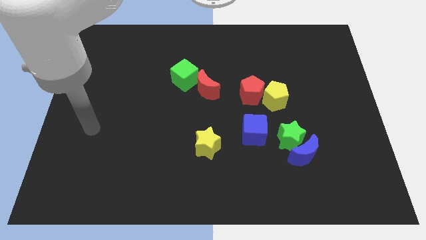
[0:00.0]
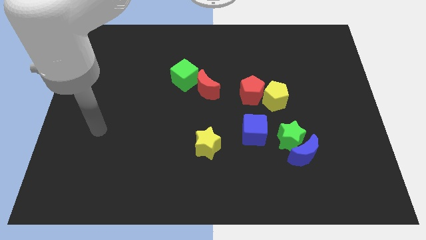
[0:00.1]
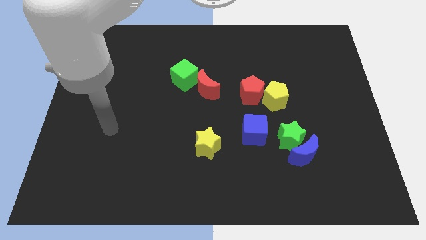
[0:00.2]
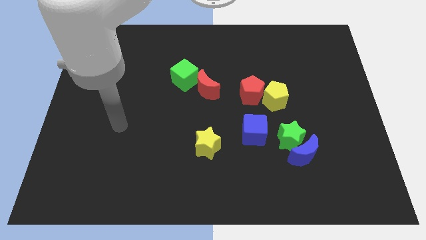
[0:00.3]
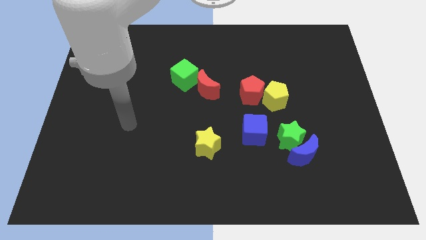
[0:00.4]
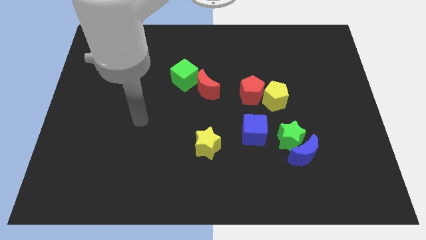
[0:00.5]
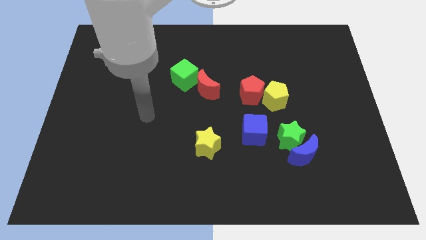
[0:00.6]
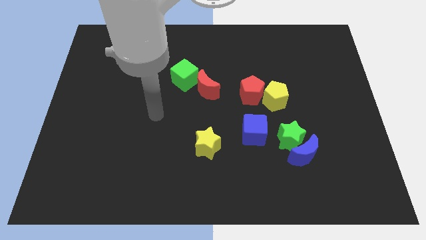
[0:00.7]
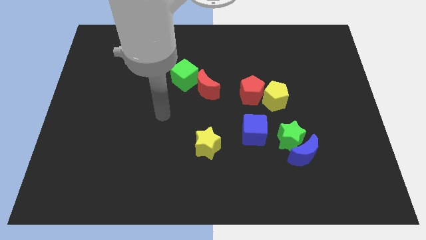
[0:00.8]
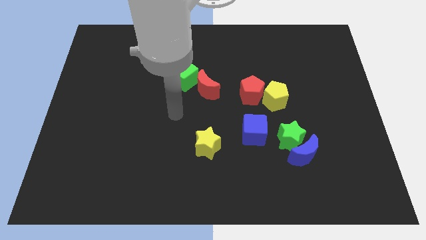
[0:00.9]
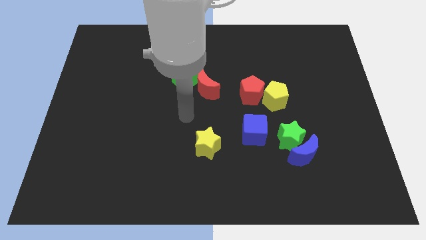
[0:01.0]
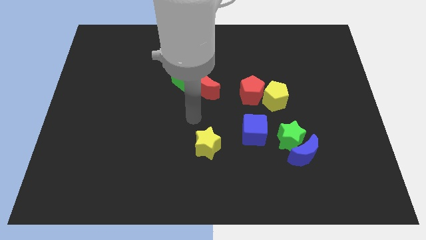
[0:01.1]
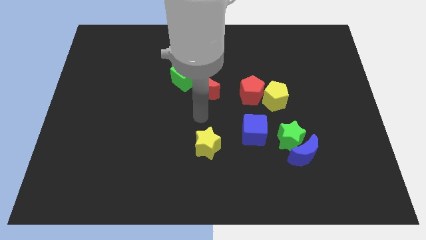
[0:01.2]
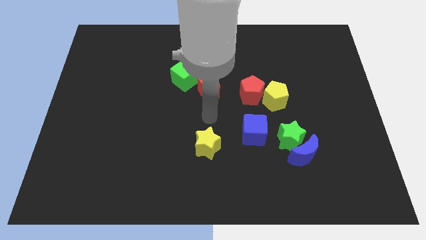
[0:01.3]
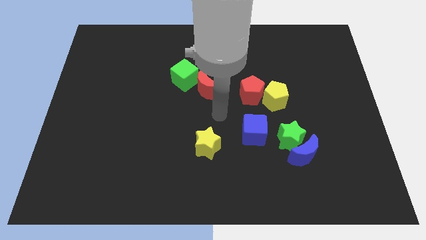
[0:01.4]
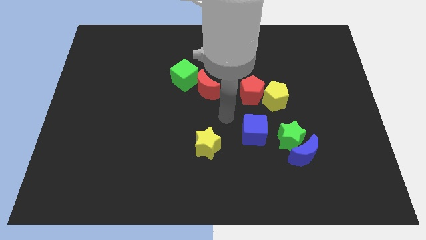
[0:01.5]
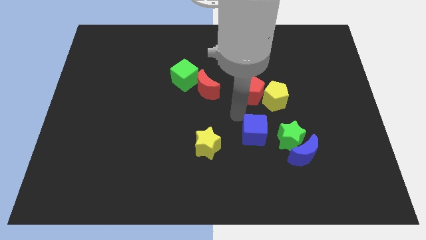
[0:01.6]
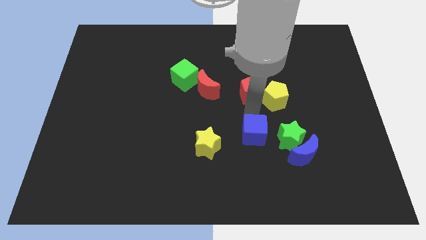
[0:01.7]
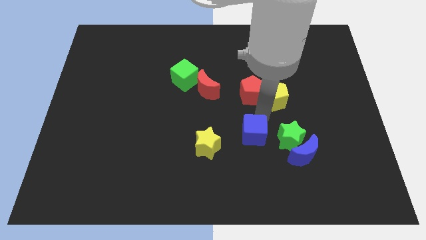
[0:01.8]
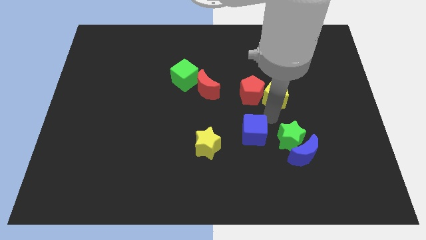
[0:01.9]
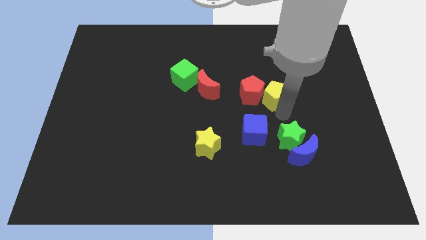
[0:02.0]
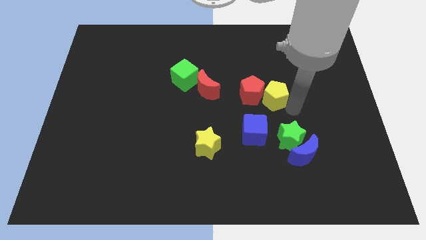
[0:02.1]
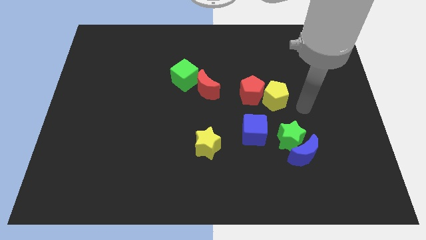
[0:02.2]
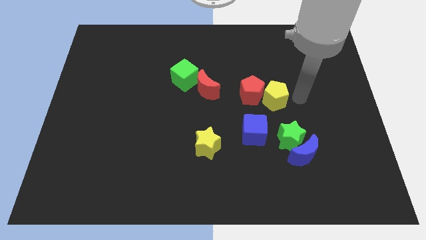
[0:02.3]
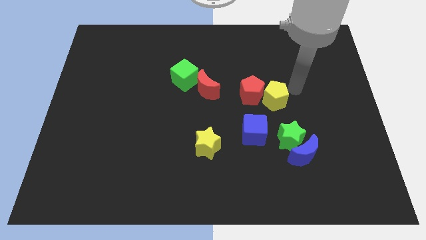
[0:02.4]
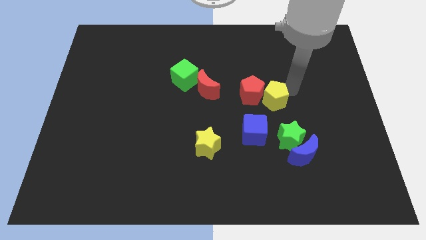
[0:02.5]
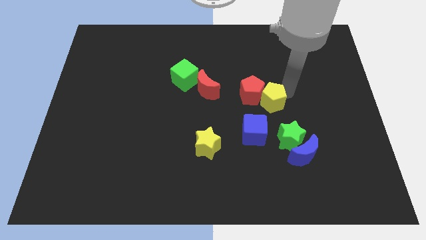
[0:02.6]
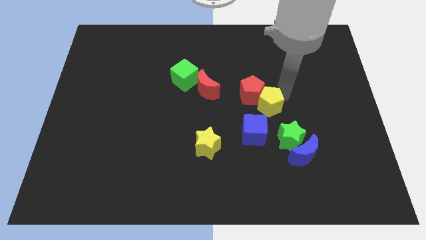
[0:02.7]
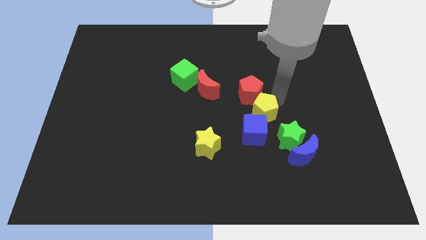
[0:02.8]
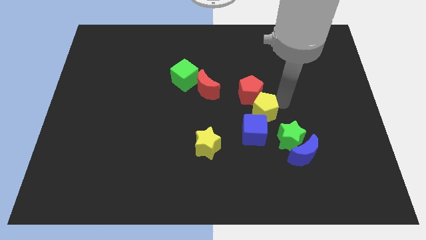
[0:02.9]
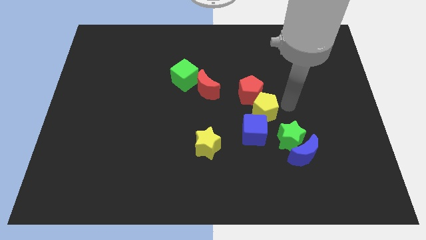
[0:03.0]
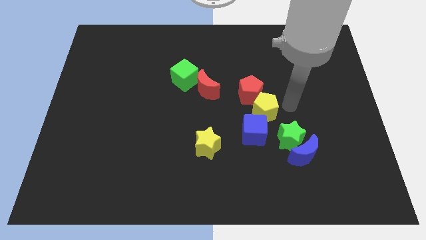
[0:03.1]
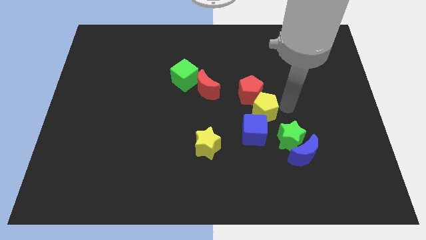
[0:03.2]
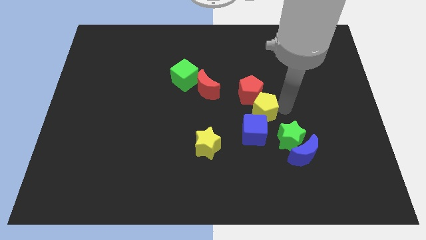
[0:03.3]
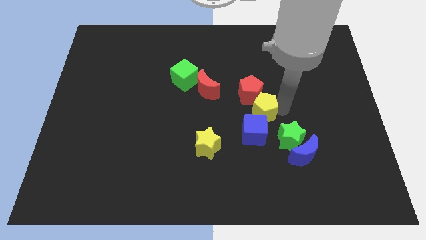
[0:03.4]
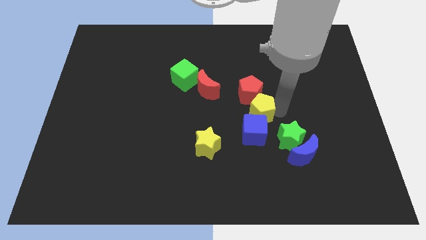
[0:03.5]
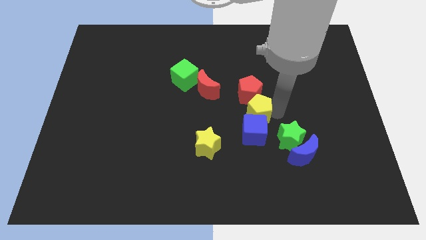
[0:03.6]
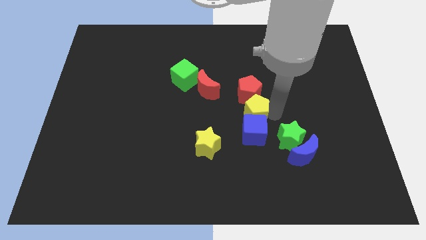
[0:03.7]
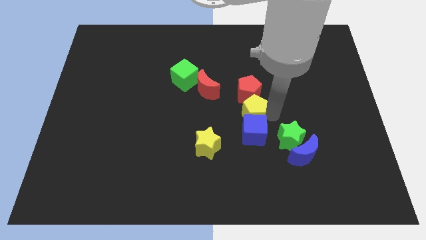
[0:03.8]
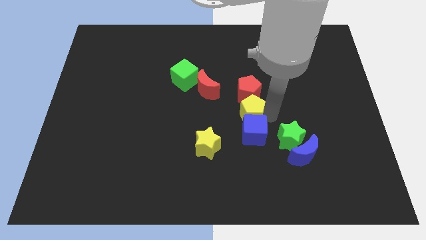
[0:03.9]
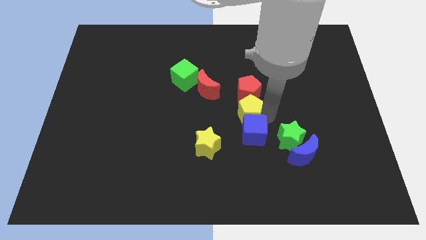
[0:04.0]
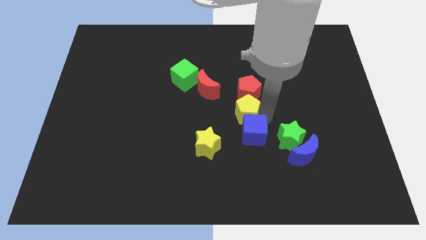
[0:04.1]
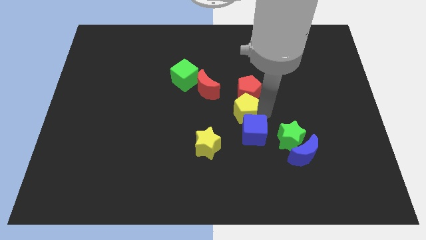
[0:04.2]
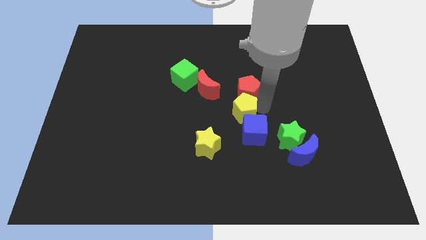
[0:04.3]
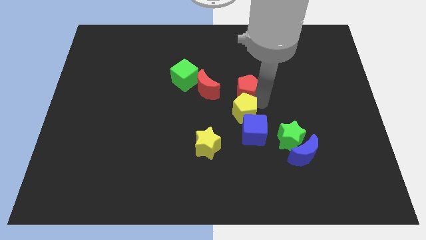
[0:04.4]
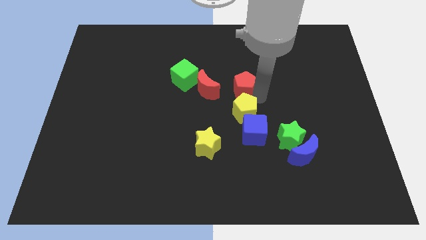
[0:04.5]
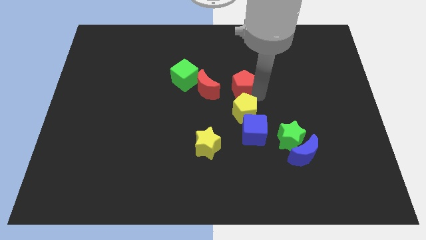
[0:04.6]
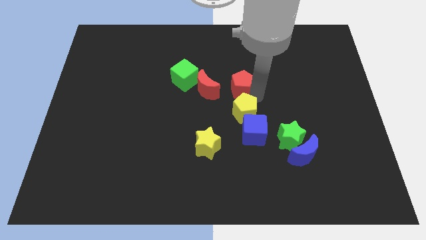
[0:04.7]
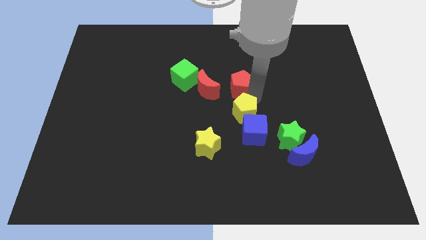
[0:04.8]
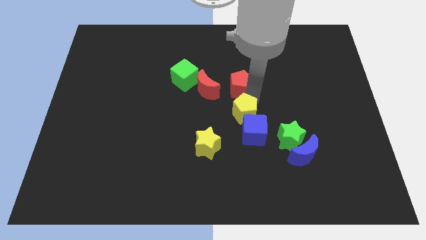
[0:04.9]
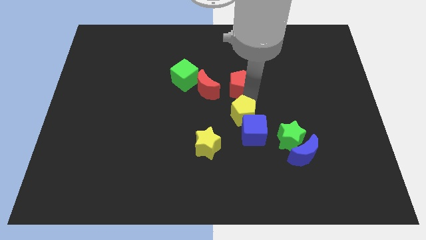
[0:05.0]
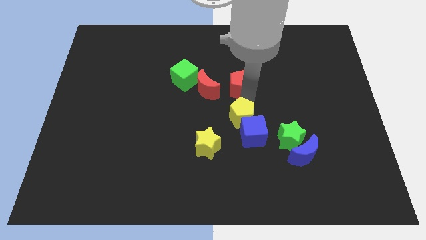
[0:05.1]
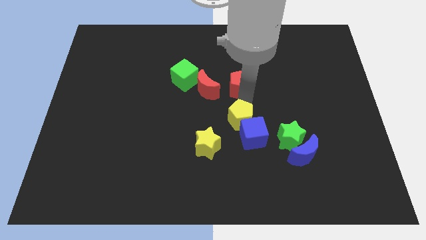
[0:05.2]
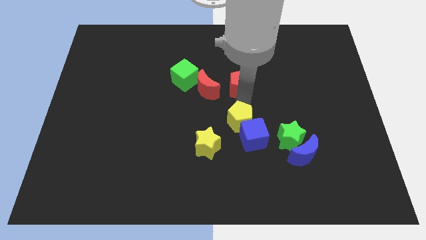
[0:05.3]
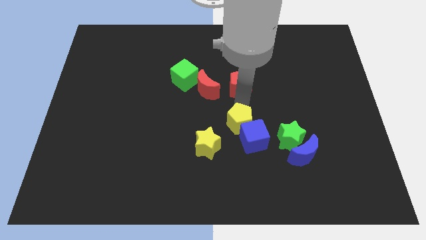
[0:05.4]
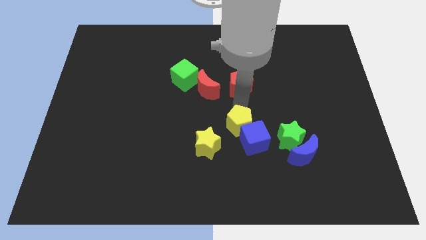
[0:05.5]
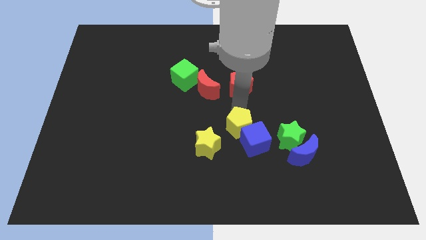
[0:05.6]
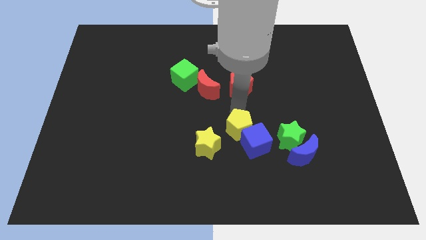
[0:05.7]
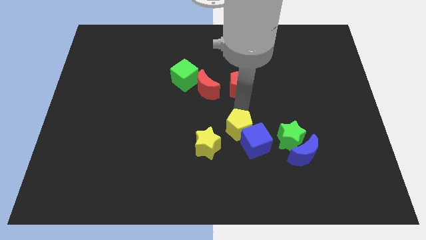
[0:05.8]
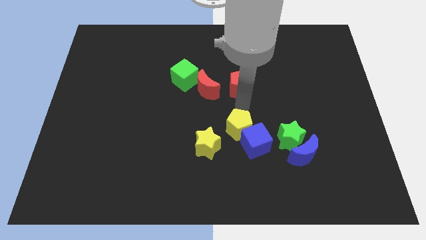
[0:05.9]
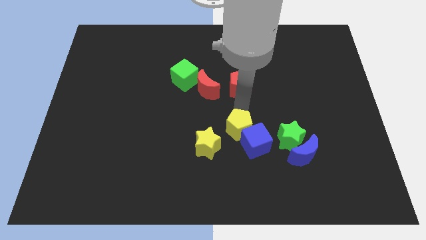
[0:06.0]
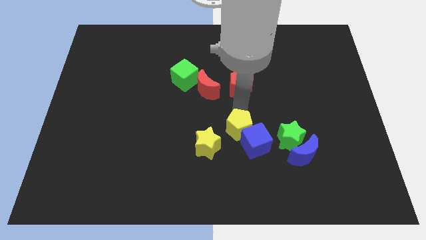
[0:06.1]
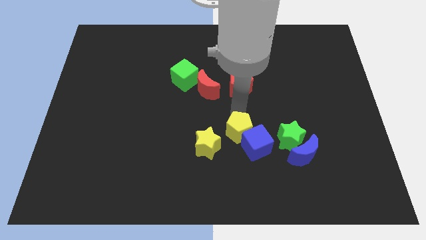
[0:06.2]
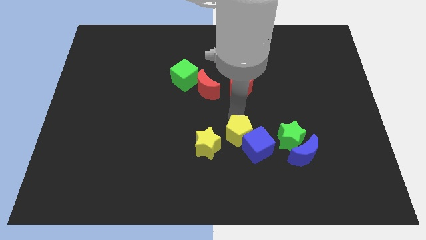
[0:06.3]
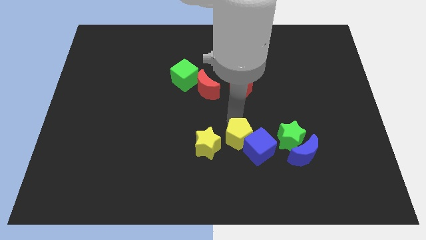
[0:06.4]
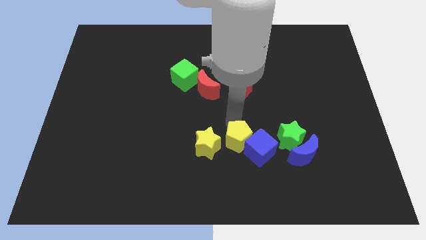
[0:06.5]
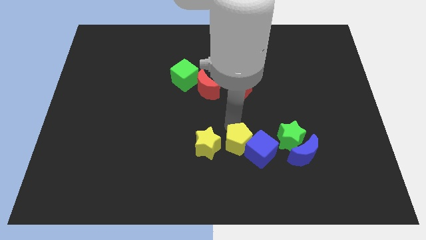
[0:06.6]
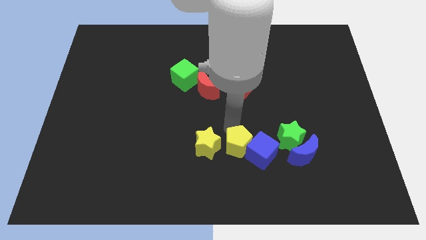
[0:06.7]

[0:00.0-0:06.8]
move the yellow pentagon to the bottom right of the yellow star

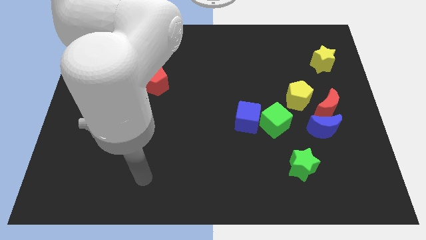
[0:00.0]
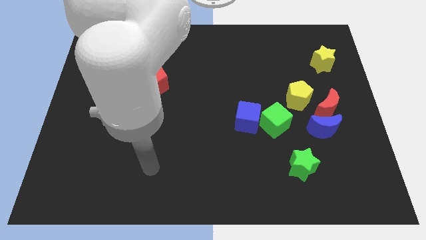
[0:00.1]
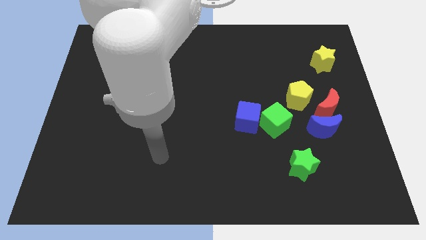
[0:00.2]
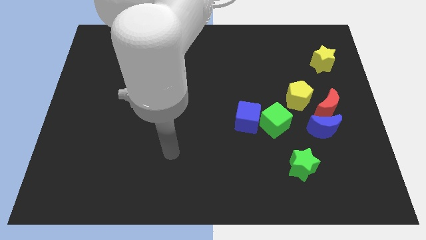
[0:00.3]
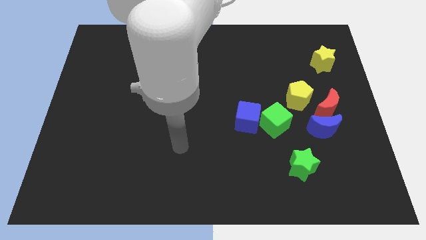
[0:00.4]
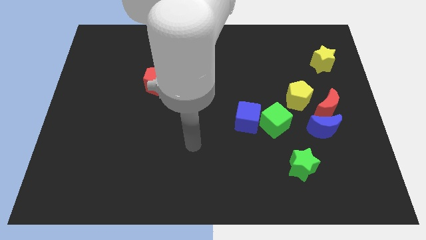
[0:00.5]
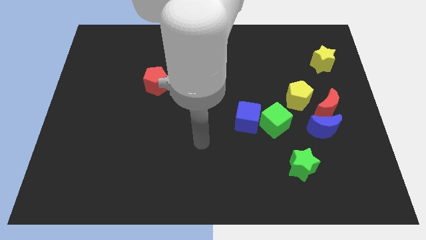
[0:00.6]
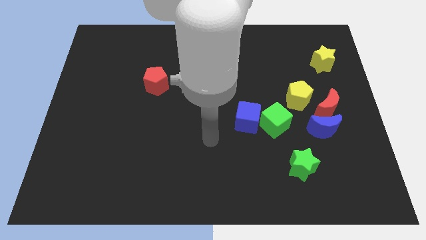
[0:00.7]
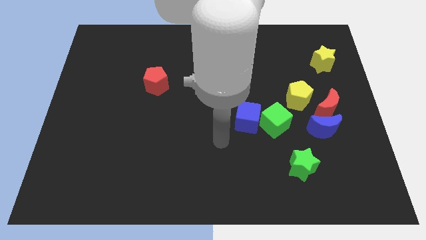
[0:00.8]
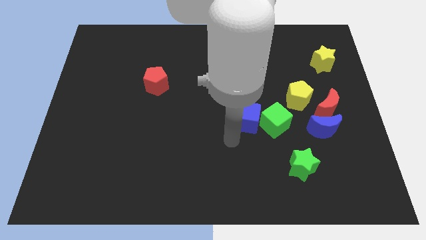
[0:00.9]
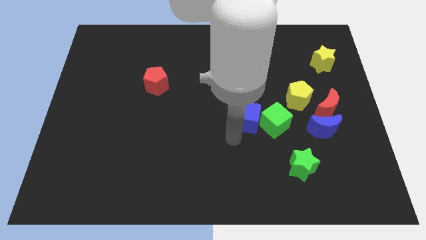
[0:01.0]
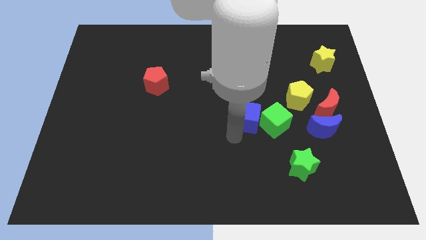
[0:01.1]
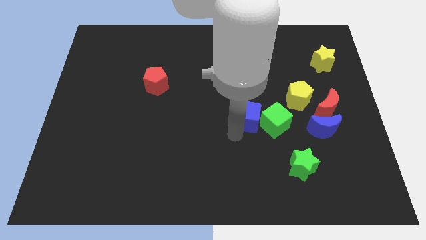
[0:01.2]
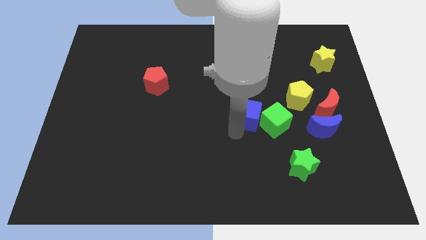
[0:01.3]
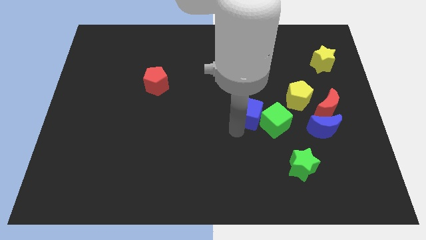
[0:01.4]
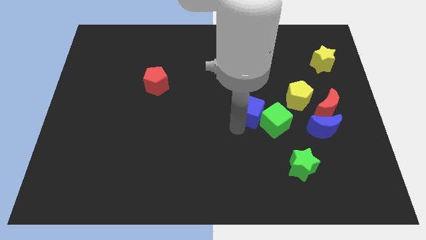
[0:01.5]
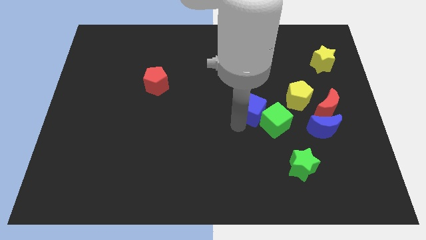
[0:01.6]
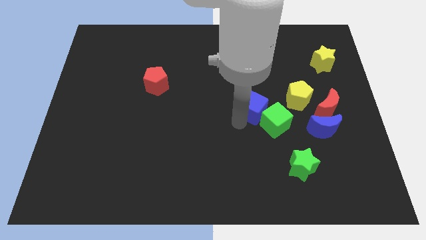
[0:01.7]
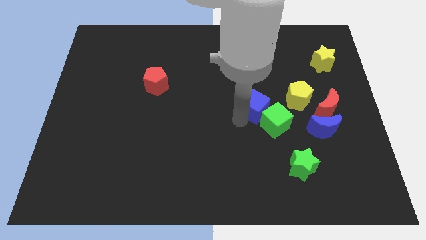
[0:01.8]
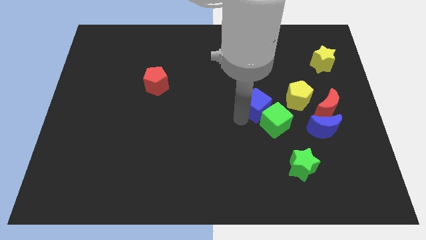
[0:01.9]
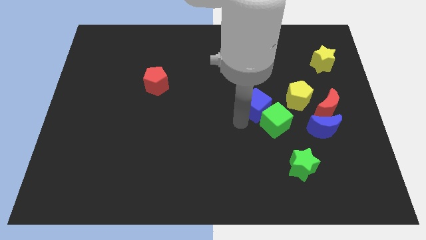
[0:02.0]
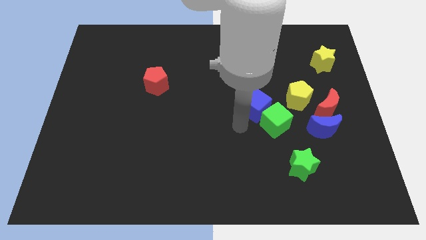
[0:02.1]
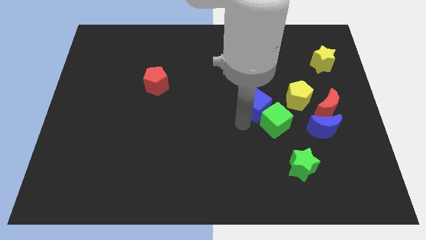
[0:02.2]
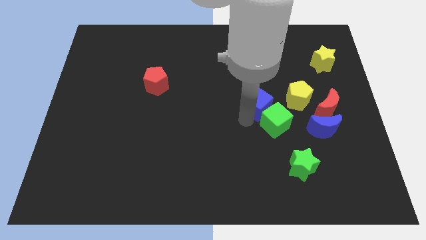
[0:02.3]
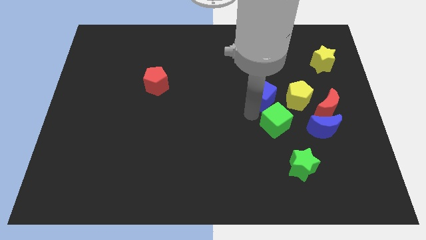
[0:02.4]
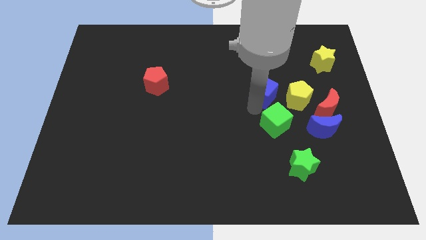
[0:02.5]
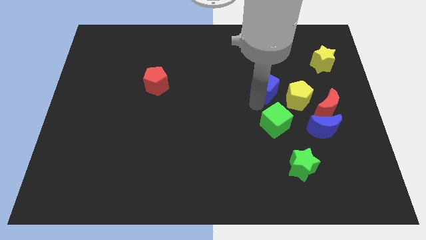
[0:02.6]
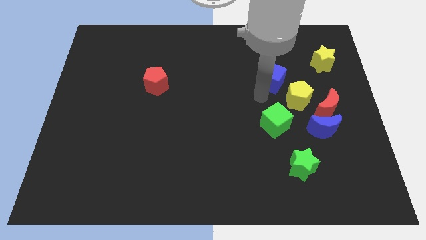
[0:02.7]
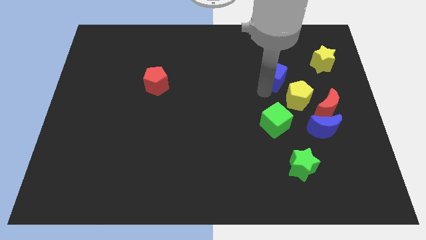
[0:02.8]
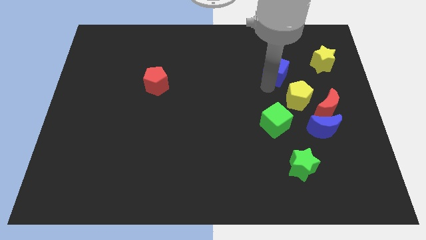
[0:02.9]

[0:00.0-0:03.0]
slide the blue cube to the left of the yellow star
